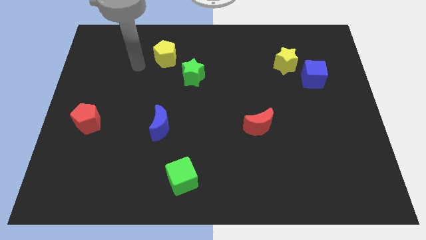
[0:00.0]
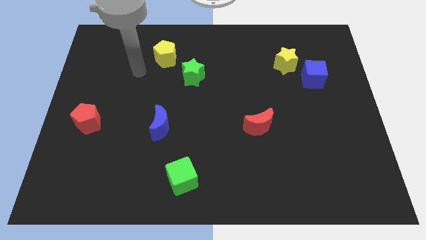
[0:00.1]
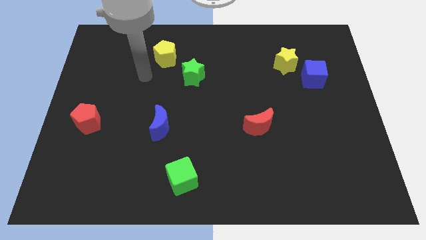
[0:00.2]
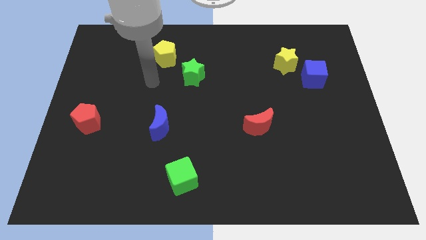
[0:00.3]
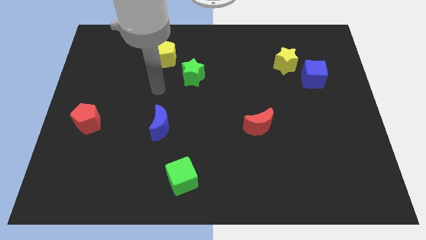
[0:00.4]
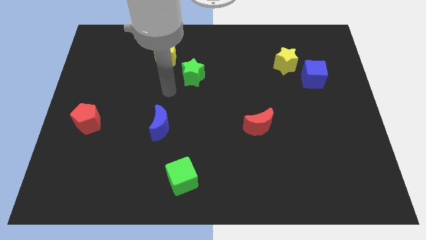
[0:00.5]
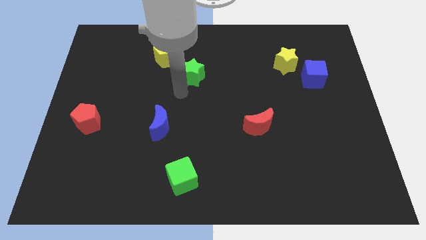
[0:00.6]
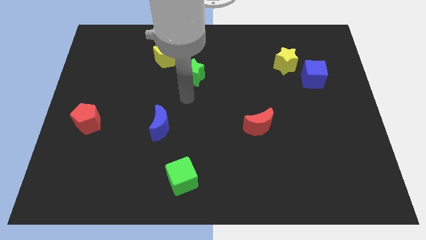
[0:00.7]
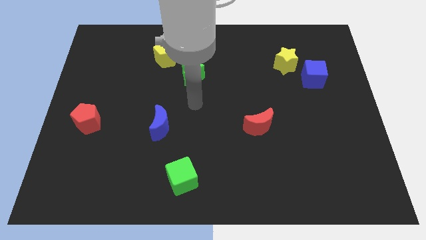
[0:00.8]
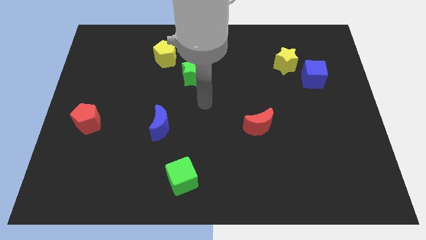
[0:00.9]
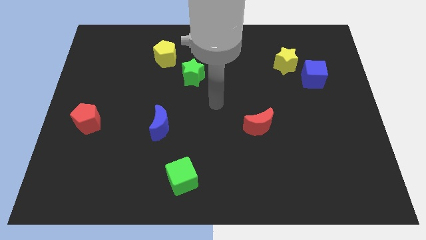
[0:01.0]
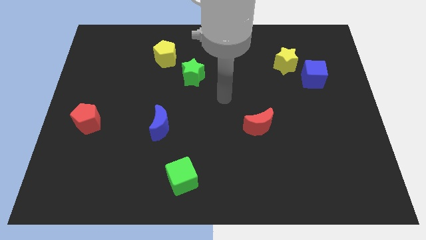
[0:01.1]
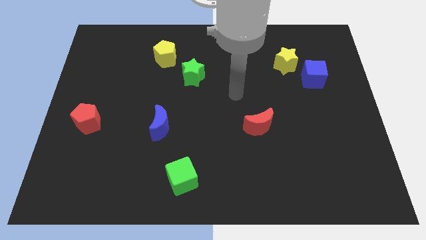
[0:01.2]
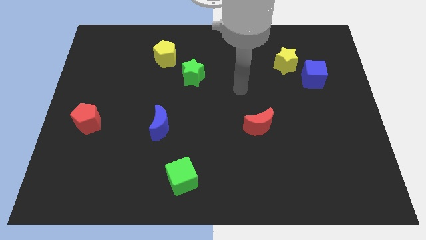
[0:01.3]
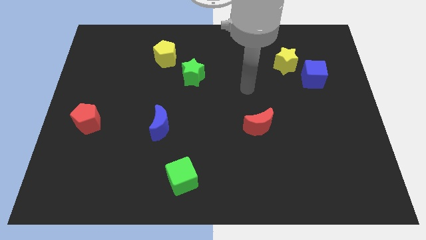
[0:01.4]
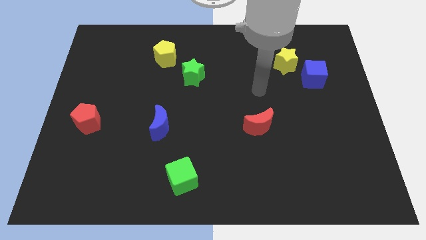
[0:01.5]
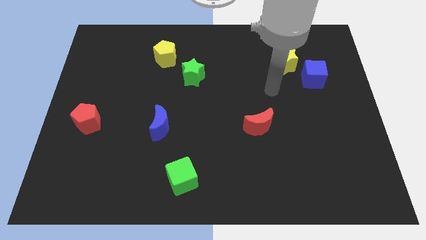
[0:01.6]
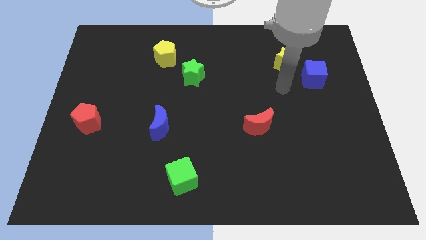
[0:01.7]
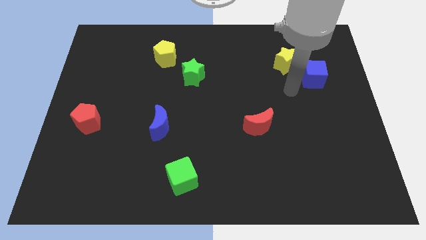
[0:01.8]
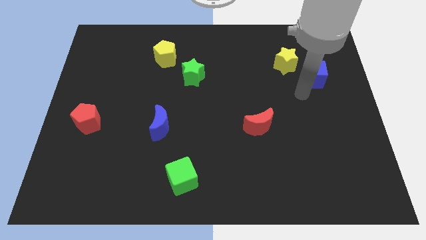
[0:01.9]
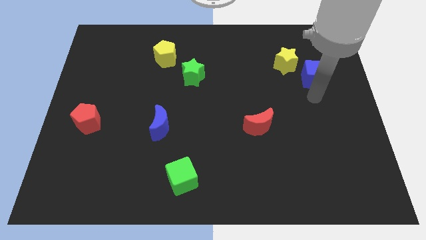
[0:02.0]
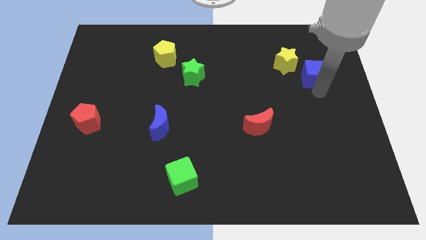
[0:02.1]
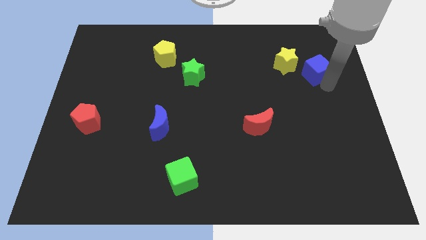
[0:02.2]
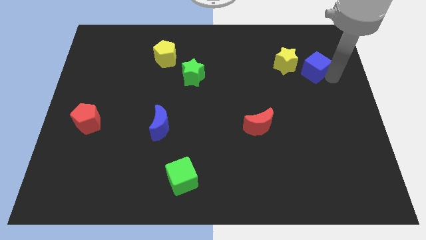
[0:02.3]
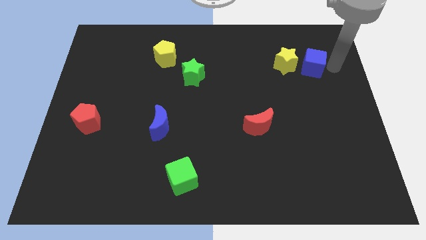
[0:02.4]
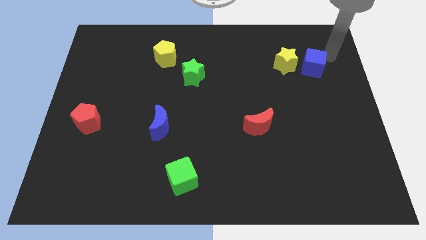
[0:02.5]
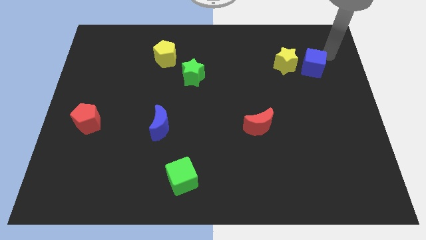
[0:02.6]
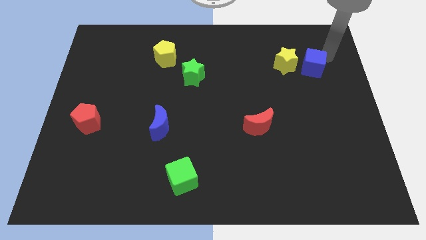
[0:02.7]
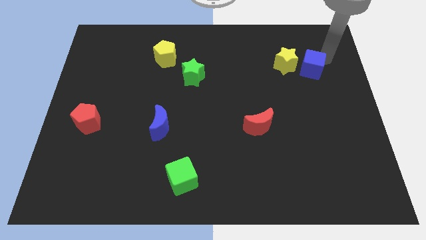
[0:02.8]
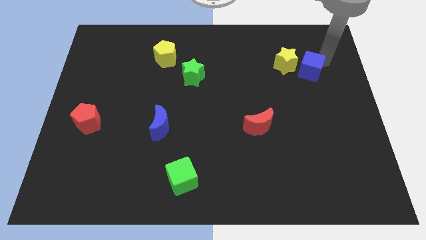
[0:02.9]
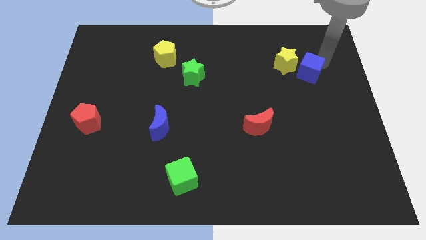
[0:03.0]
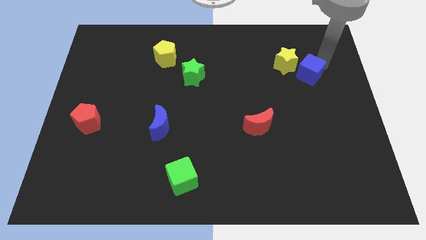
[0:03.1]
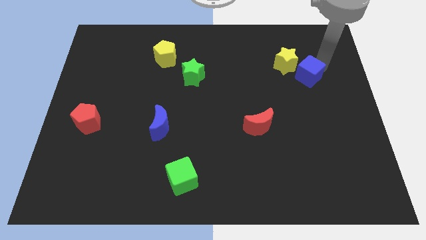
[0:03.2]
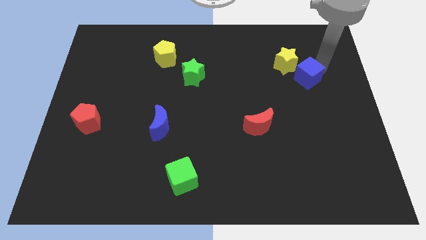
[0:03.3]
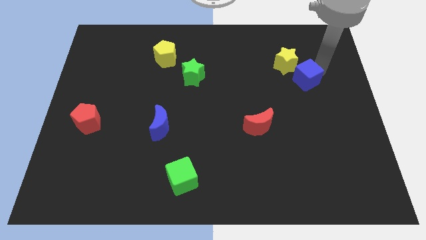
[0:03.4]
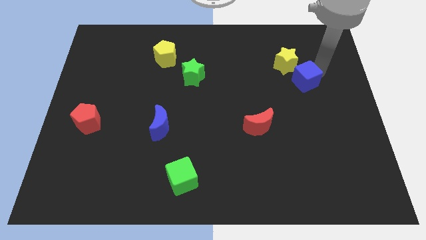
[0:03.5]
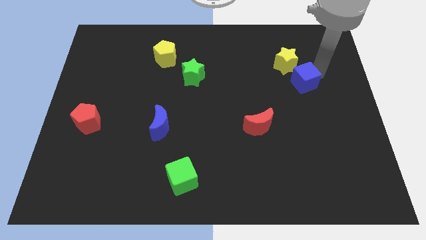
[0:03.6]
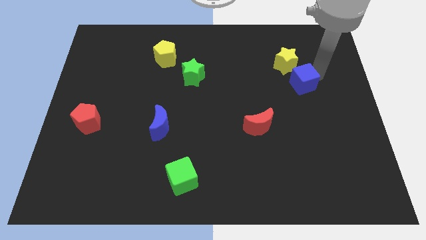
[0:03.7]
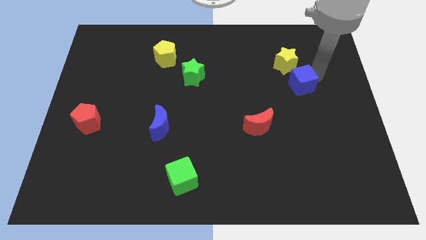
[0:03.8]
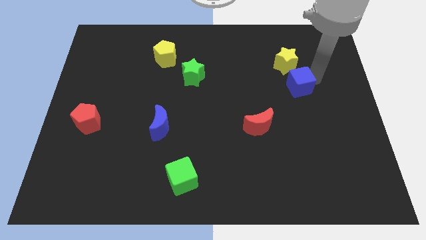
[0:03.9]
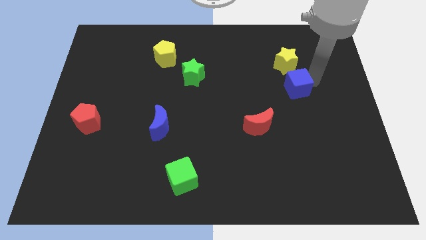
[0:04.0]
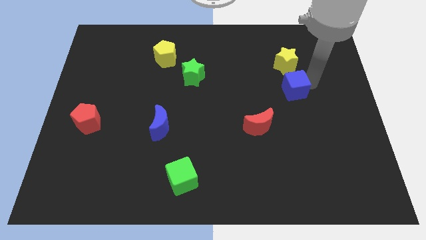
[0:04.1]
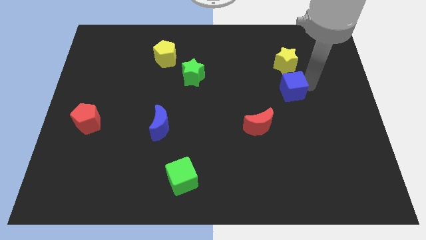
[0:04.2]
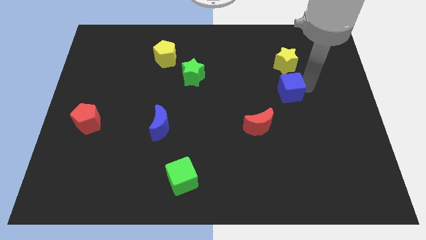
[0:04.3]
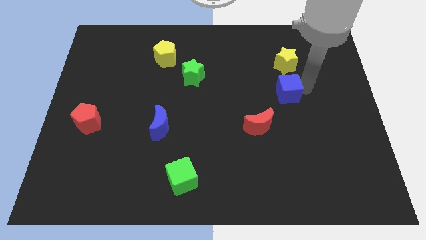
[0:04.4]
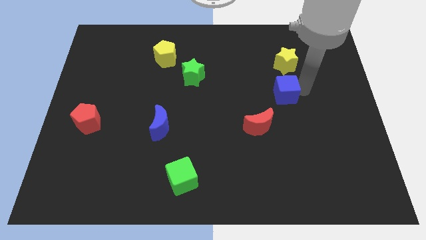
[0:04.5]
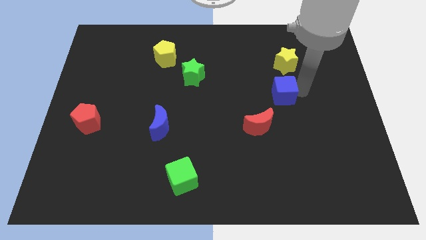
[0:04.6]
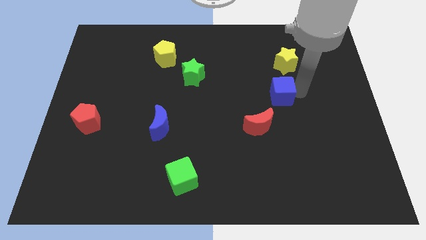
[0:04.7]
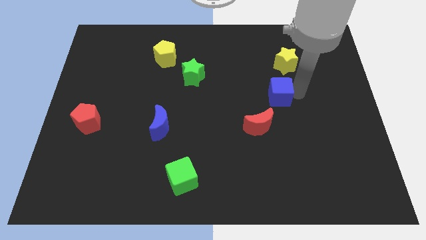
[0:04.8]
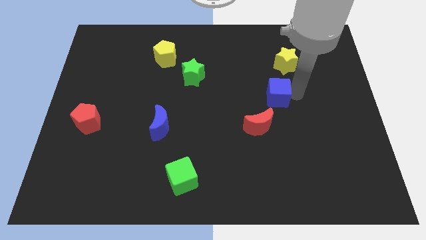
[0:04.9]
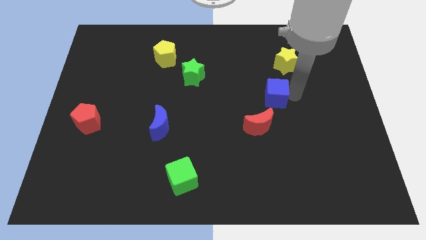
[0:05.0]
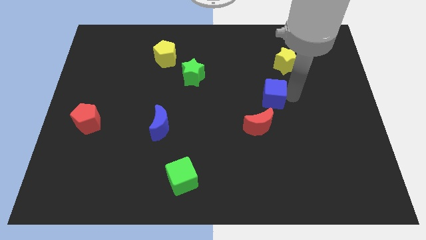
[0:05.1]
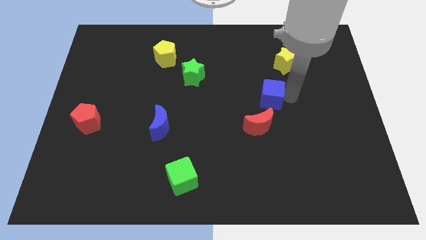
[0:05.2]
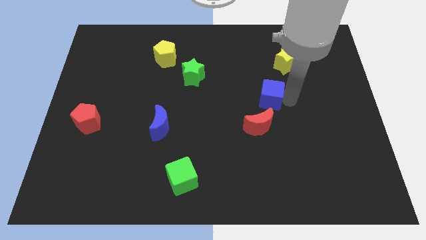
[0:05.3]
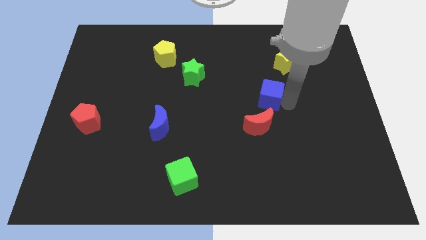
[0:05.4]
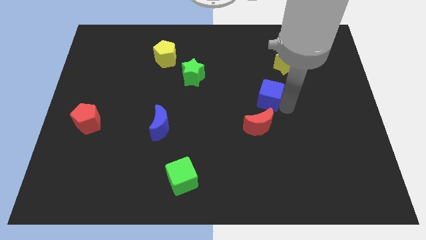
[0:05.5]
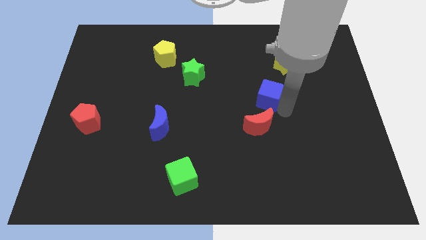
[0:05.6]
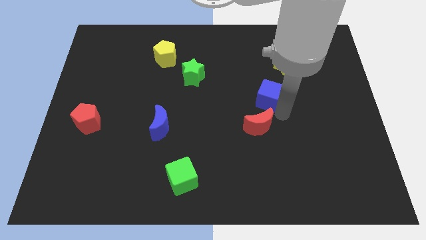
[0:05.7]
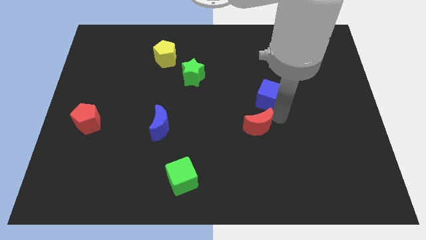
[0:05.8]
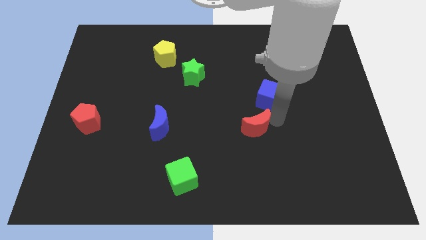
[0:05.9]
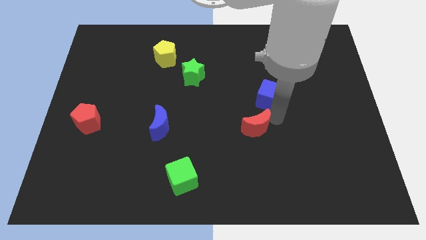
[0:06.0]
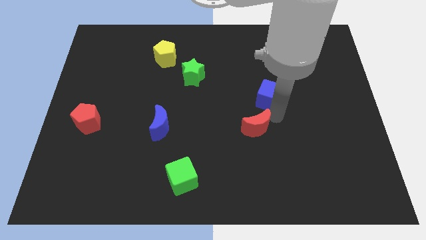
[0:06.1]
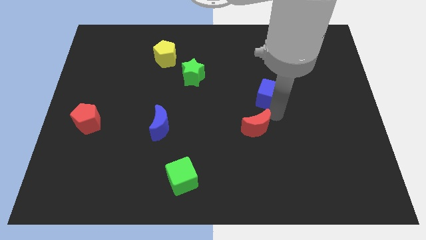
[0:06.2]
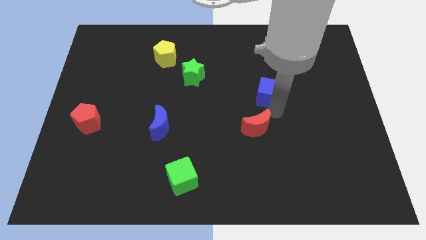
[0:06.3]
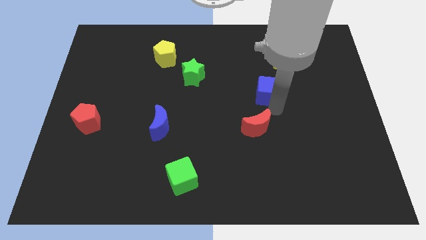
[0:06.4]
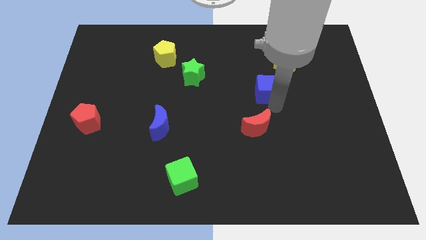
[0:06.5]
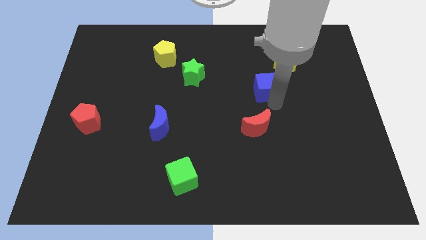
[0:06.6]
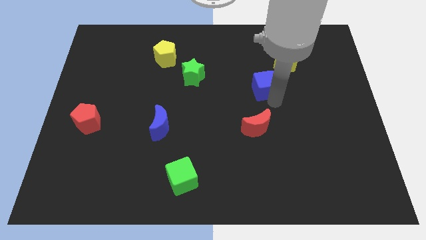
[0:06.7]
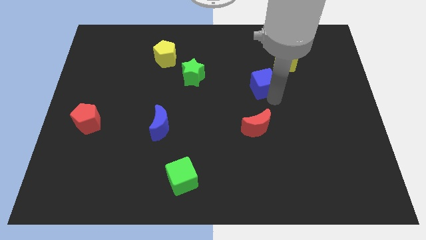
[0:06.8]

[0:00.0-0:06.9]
put the blue cube to the center of the board

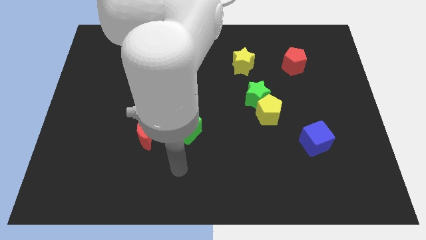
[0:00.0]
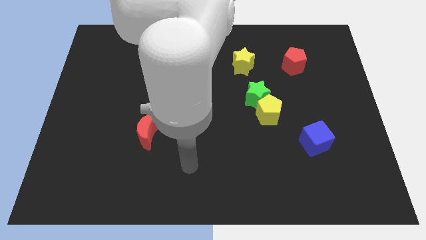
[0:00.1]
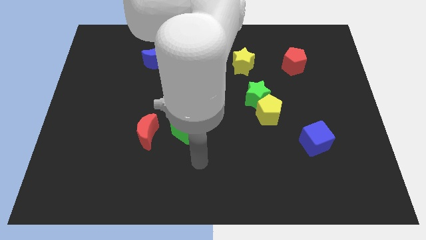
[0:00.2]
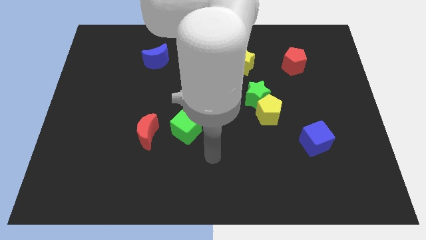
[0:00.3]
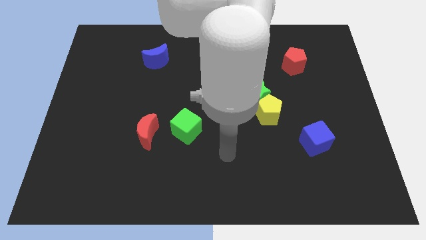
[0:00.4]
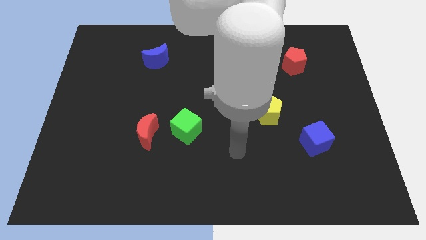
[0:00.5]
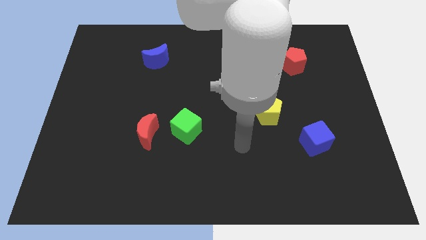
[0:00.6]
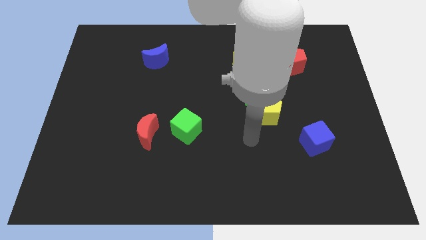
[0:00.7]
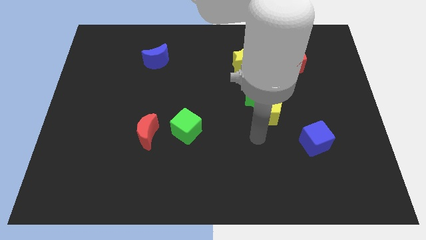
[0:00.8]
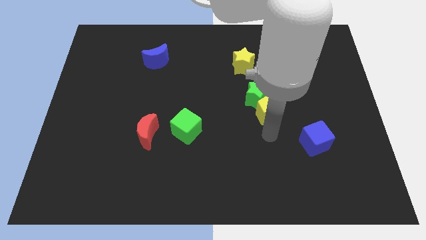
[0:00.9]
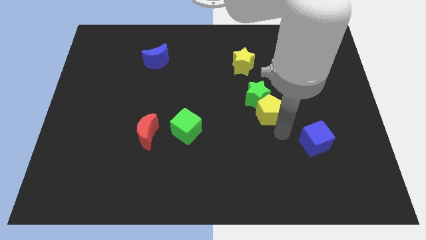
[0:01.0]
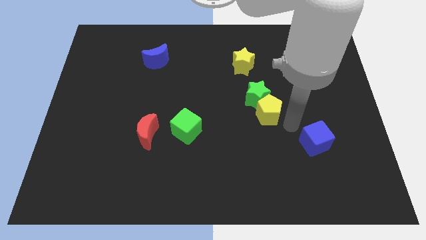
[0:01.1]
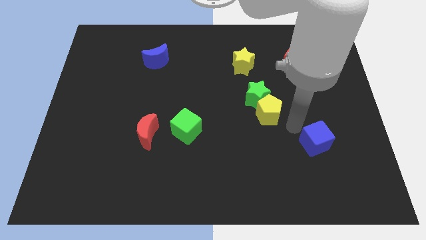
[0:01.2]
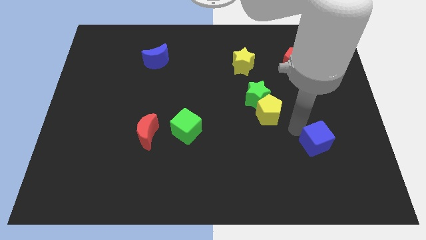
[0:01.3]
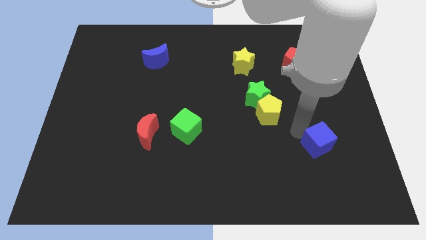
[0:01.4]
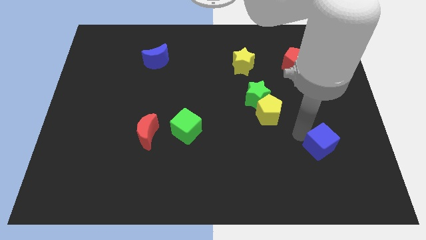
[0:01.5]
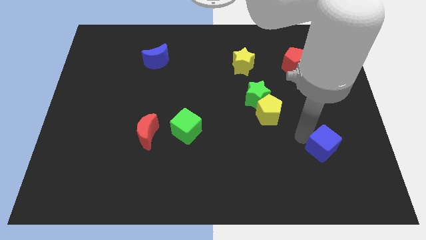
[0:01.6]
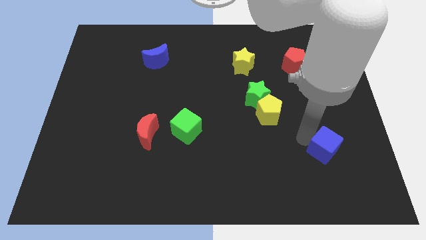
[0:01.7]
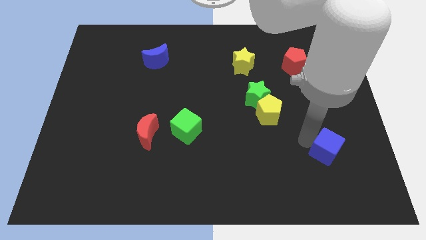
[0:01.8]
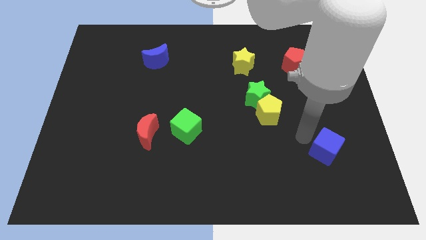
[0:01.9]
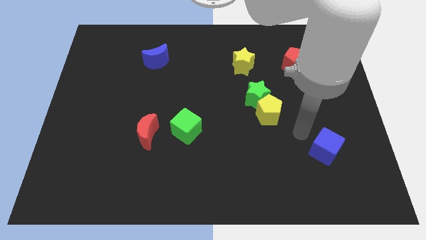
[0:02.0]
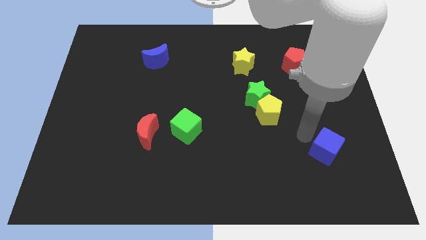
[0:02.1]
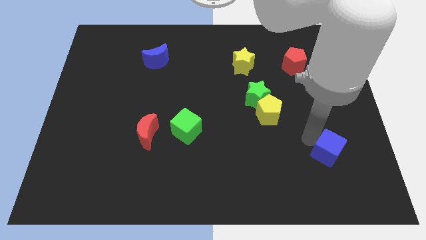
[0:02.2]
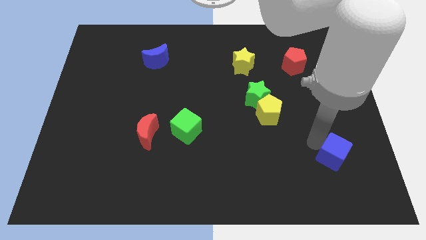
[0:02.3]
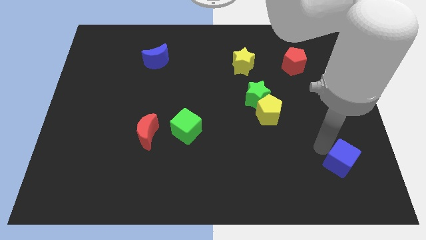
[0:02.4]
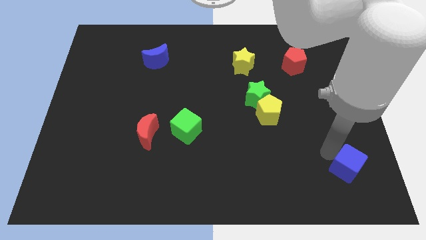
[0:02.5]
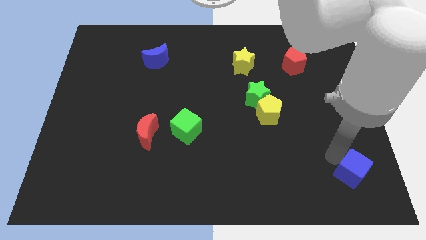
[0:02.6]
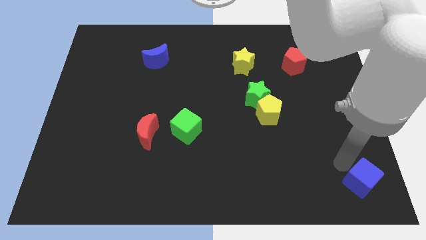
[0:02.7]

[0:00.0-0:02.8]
put the blue cube to the bottom right of the board
